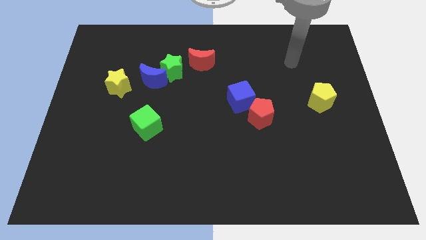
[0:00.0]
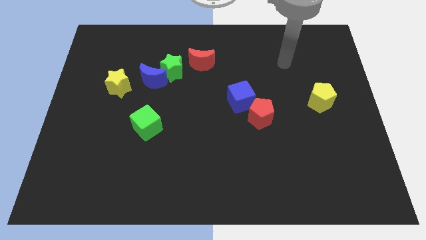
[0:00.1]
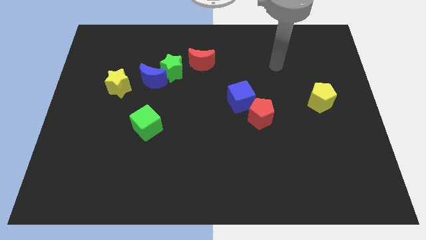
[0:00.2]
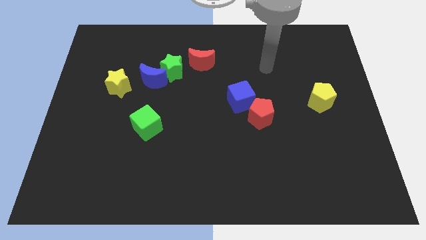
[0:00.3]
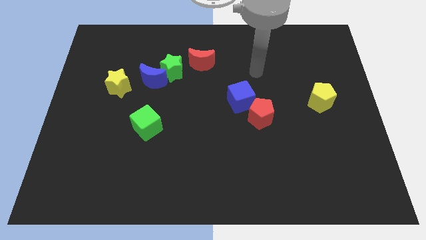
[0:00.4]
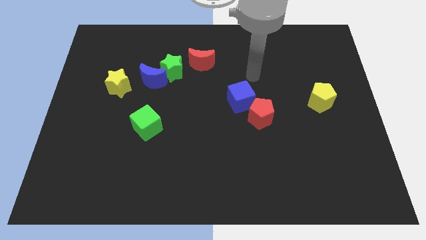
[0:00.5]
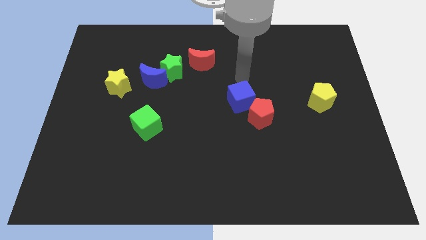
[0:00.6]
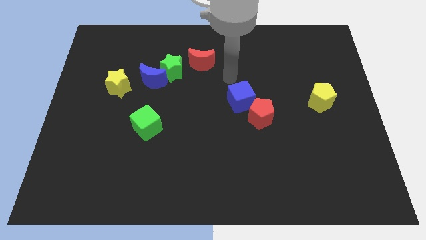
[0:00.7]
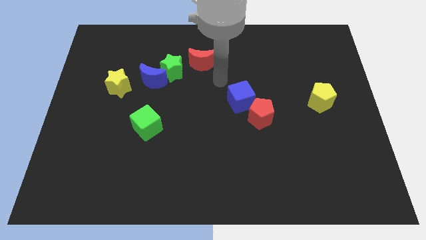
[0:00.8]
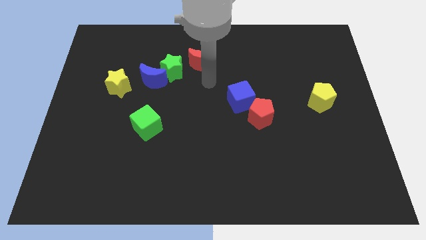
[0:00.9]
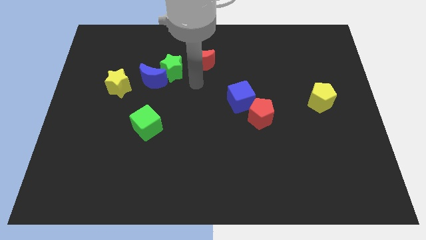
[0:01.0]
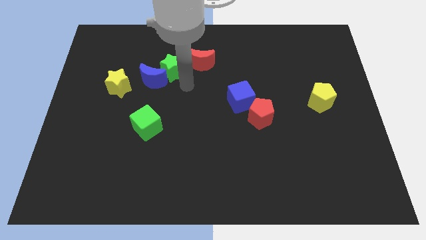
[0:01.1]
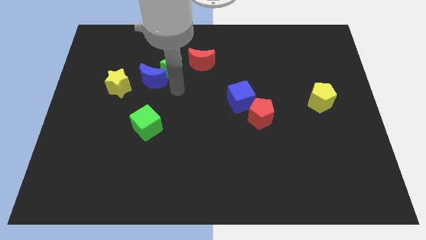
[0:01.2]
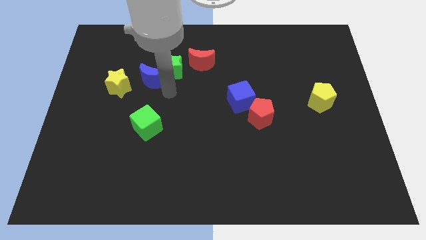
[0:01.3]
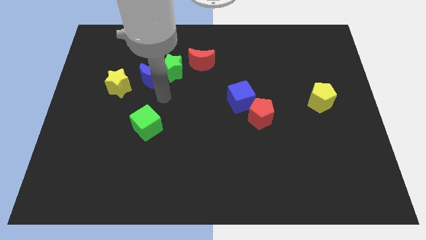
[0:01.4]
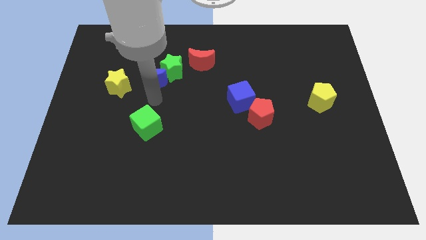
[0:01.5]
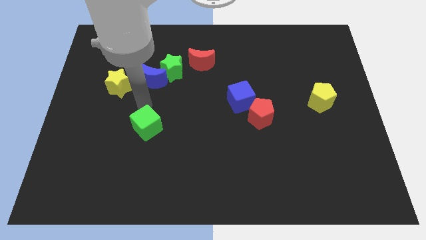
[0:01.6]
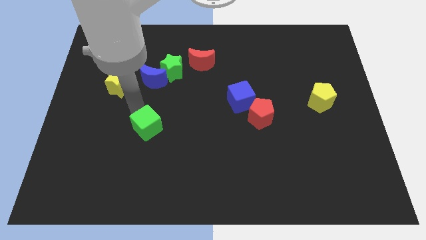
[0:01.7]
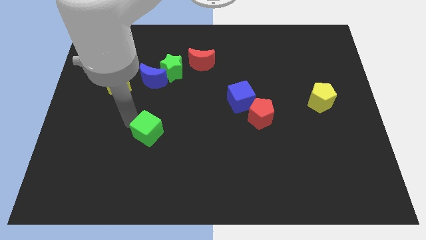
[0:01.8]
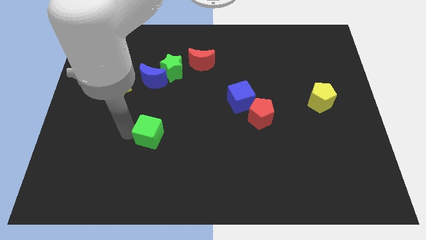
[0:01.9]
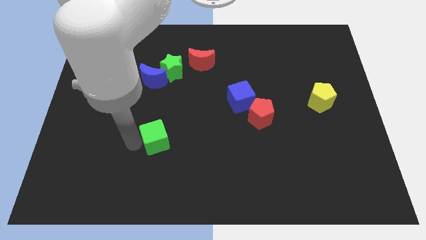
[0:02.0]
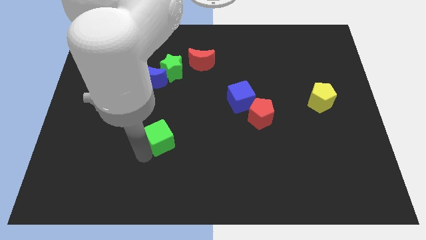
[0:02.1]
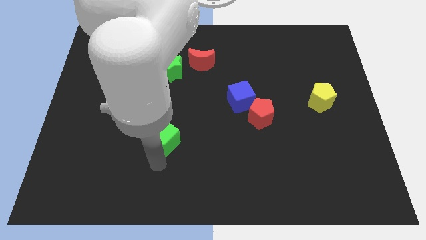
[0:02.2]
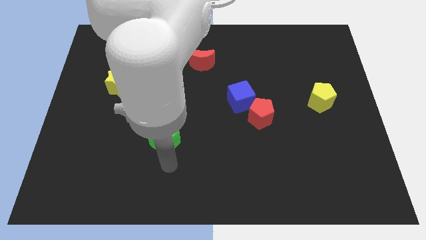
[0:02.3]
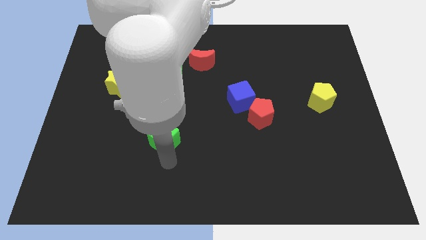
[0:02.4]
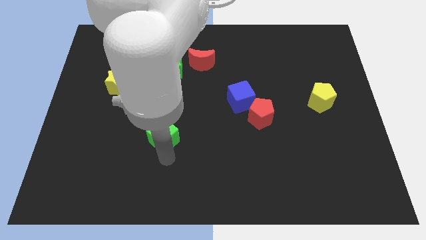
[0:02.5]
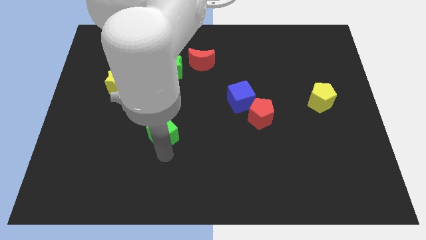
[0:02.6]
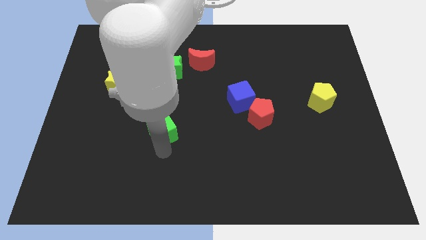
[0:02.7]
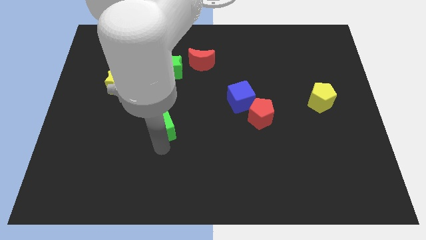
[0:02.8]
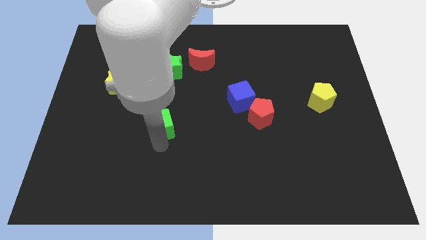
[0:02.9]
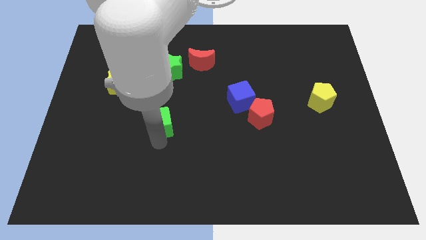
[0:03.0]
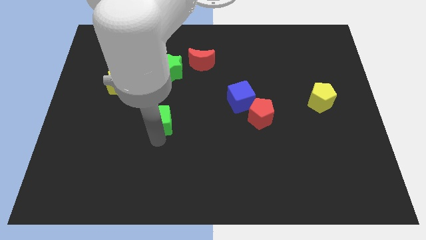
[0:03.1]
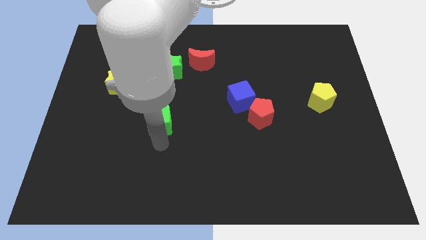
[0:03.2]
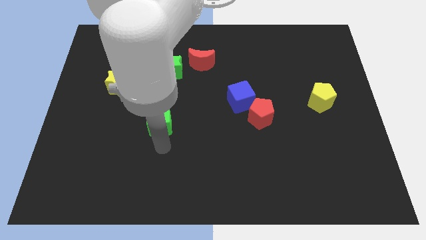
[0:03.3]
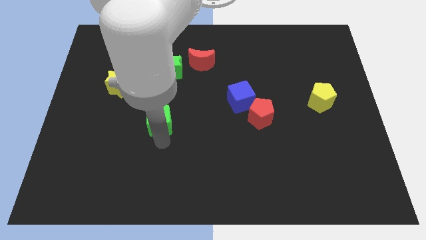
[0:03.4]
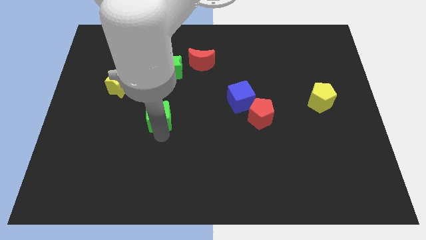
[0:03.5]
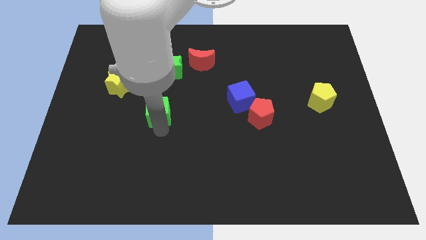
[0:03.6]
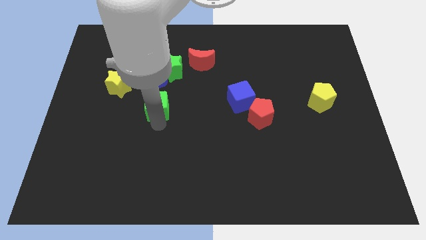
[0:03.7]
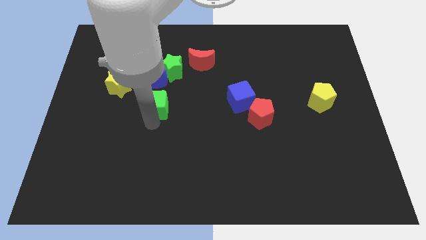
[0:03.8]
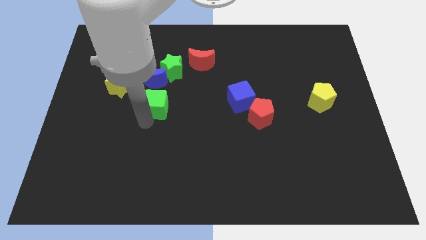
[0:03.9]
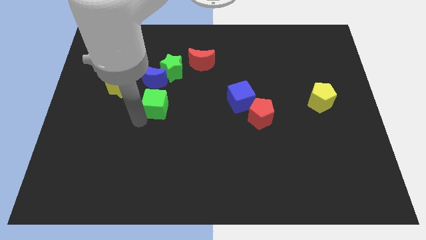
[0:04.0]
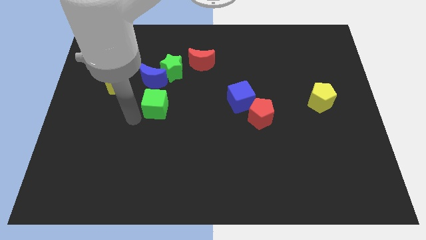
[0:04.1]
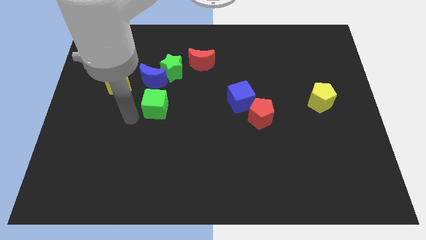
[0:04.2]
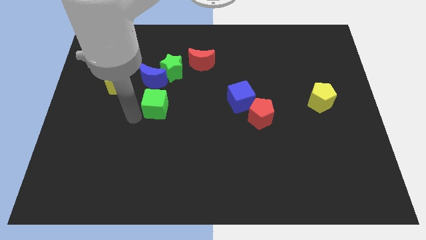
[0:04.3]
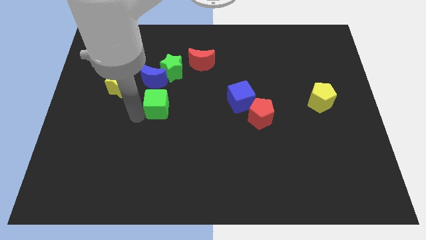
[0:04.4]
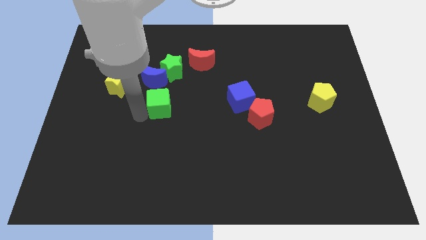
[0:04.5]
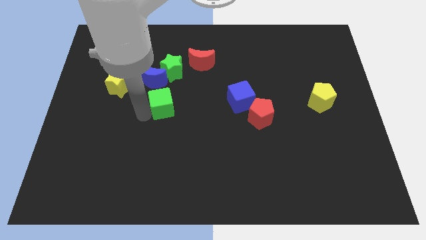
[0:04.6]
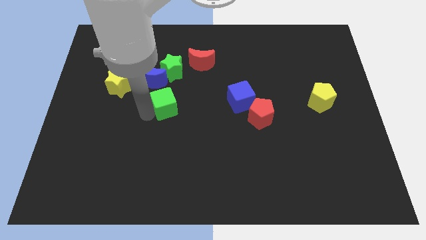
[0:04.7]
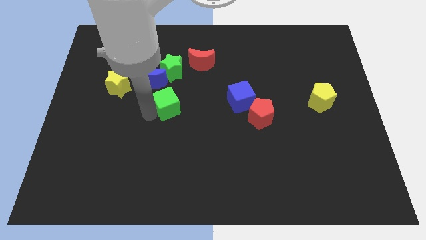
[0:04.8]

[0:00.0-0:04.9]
push the green cube upwards and then right a little

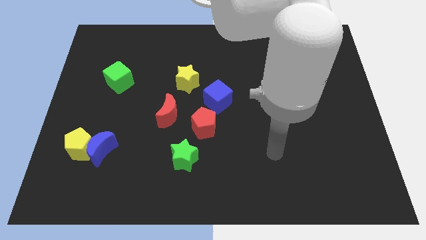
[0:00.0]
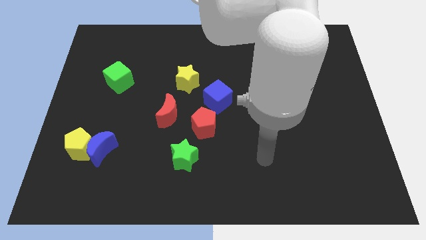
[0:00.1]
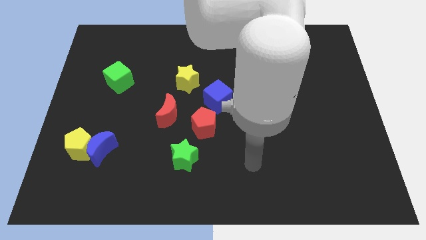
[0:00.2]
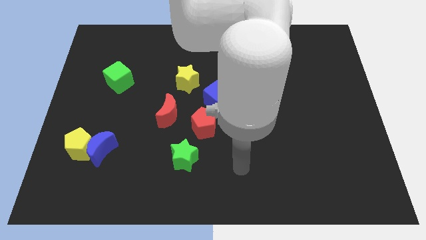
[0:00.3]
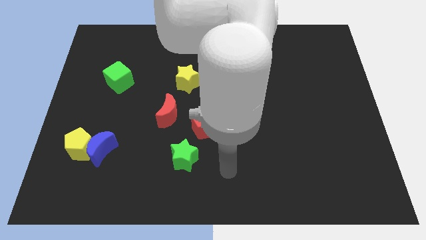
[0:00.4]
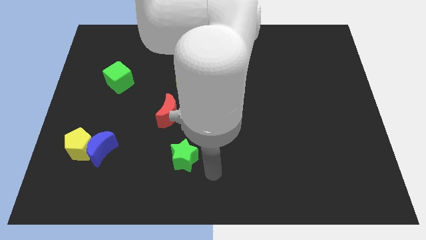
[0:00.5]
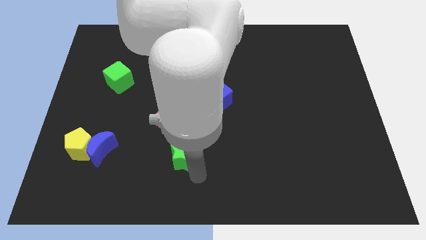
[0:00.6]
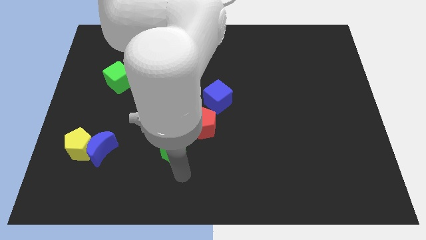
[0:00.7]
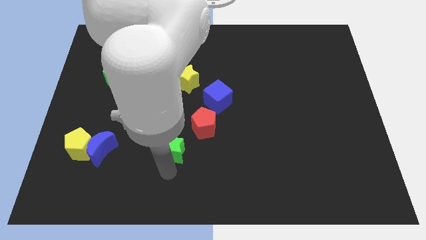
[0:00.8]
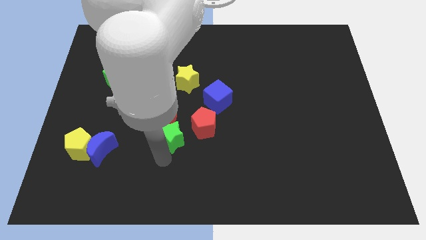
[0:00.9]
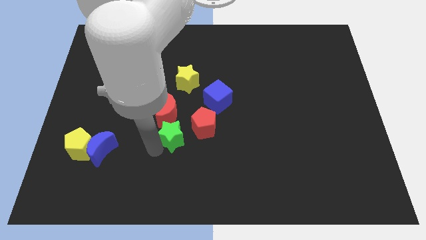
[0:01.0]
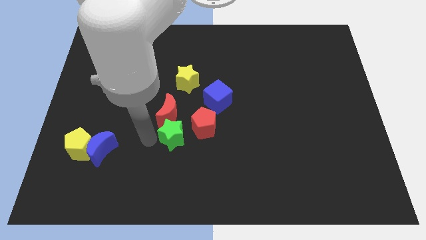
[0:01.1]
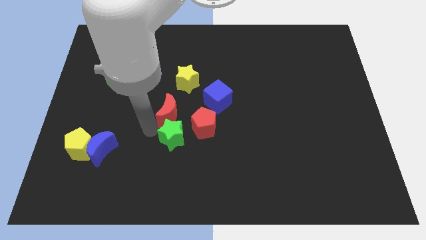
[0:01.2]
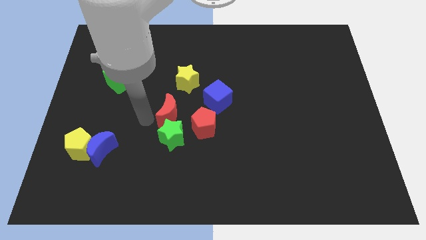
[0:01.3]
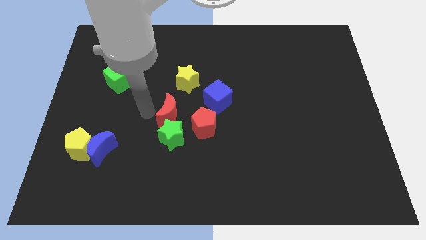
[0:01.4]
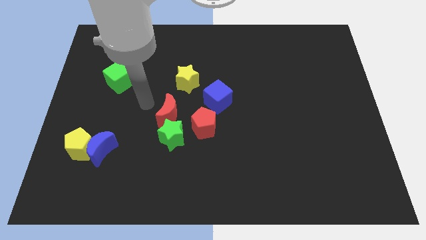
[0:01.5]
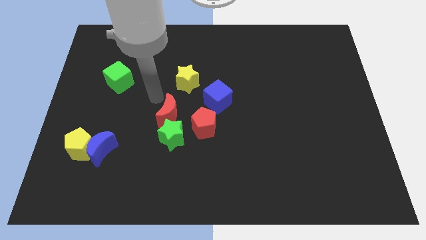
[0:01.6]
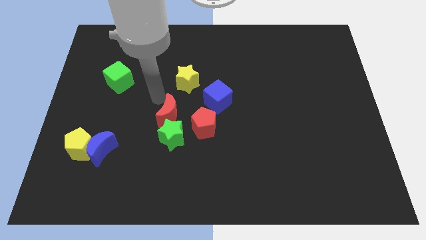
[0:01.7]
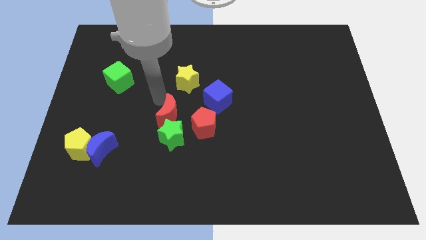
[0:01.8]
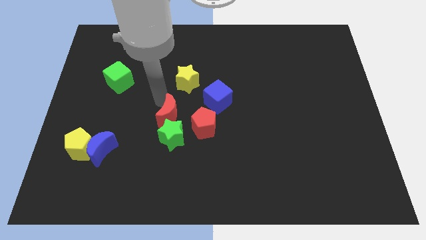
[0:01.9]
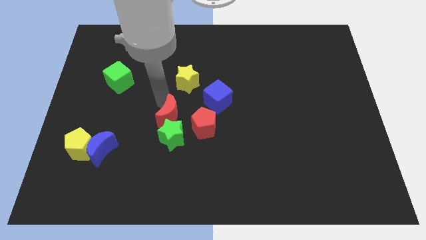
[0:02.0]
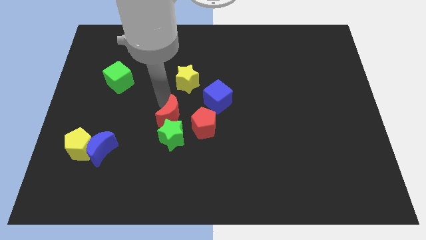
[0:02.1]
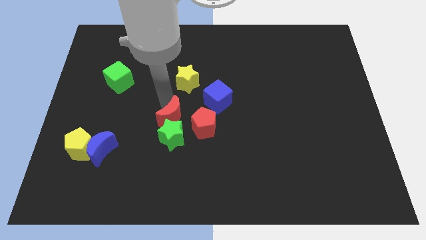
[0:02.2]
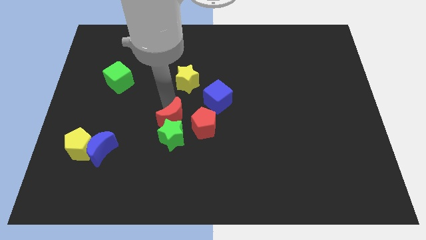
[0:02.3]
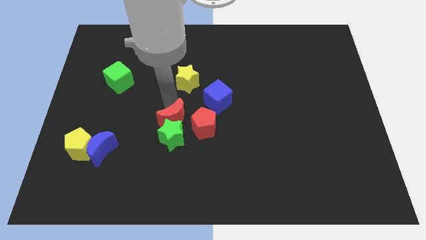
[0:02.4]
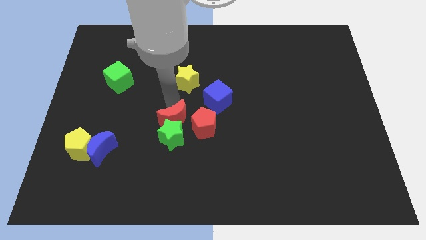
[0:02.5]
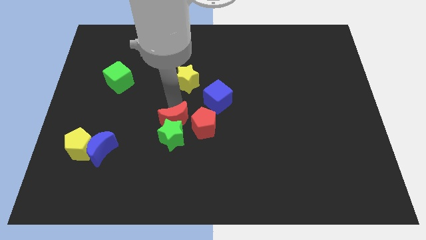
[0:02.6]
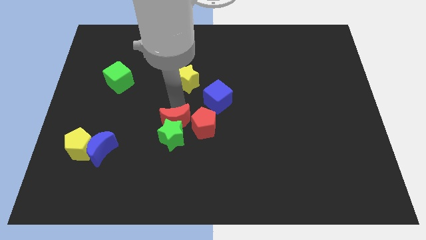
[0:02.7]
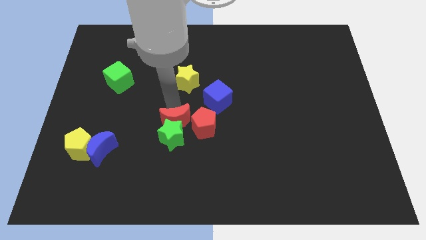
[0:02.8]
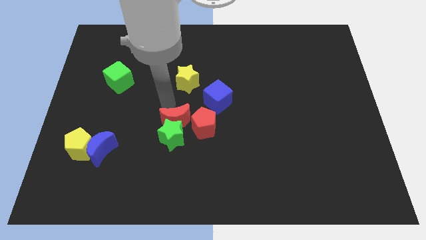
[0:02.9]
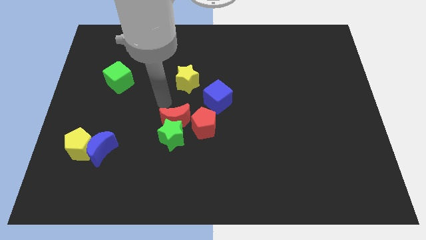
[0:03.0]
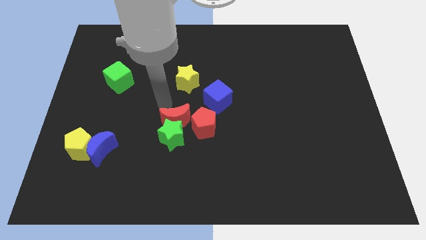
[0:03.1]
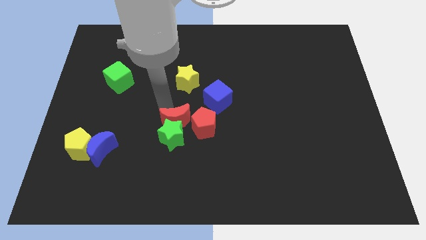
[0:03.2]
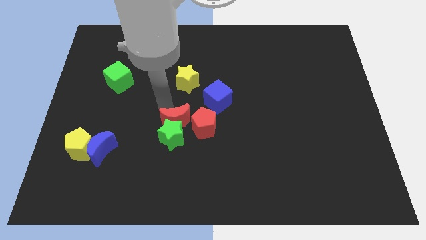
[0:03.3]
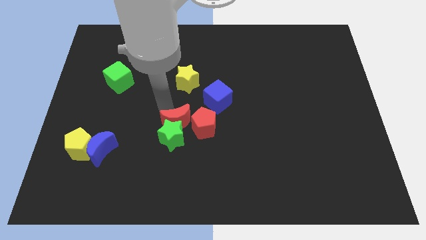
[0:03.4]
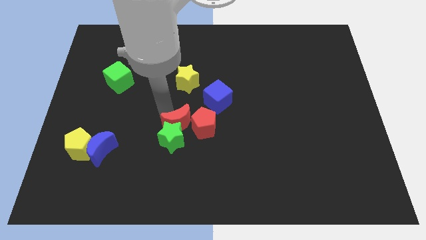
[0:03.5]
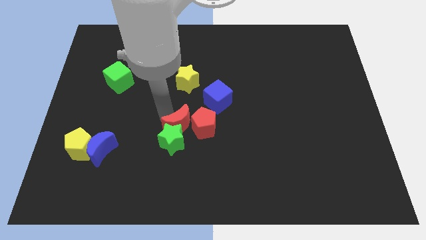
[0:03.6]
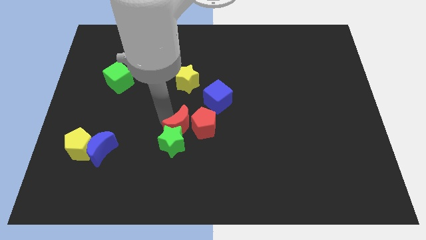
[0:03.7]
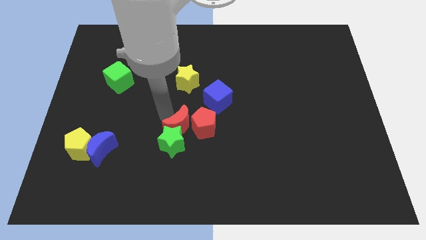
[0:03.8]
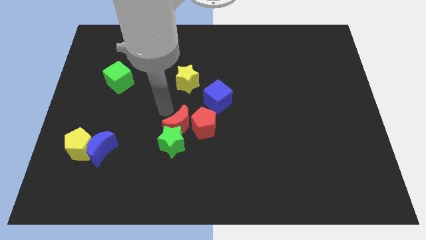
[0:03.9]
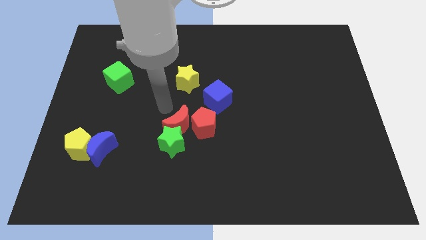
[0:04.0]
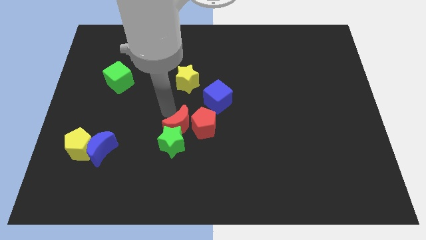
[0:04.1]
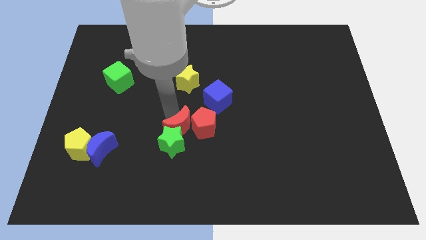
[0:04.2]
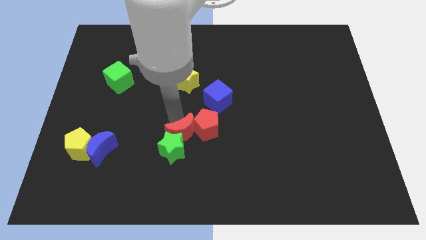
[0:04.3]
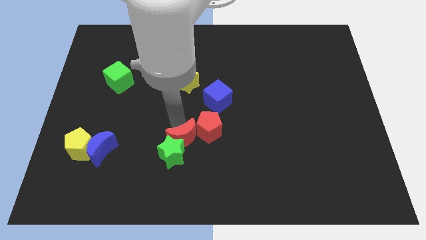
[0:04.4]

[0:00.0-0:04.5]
slightly move the red moon downwards and right diagonally
